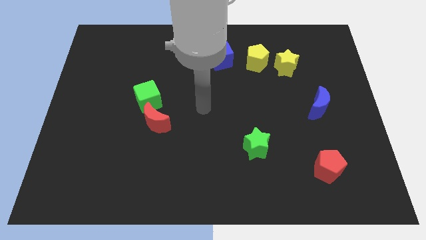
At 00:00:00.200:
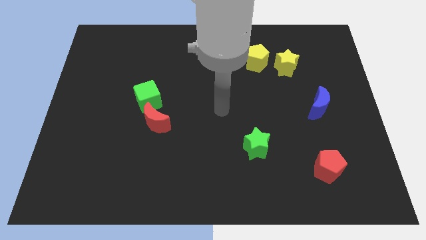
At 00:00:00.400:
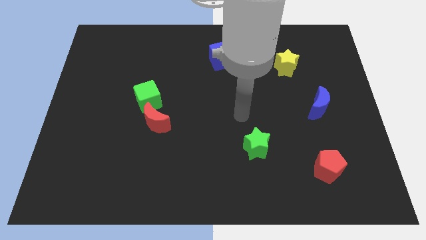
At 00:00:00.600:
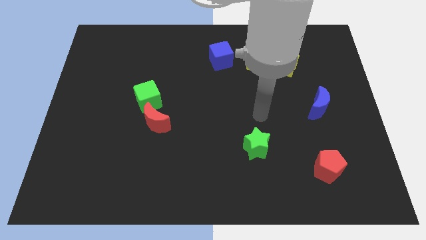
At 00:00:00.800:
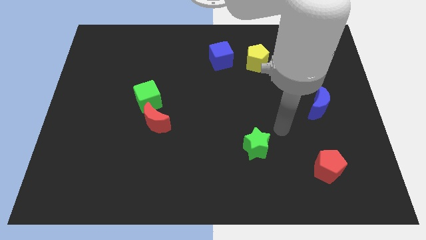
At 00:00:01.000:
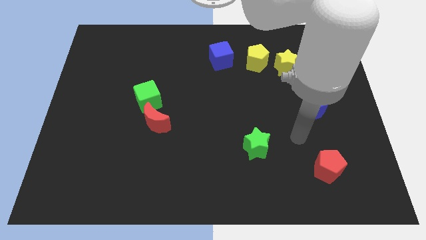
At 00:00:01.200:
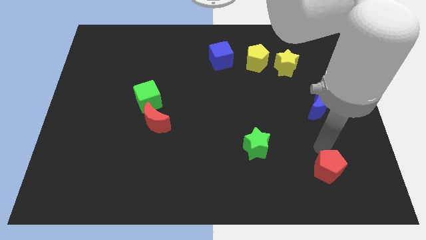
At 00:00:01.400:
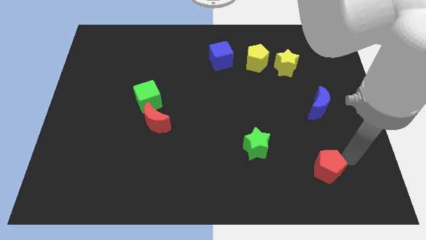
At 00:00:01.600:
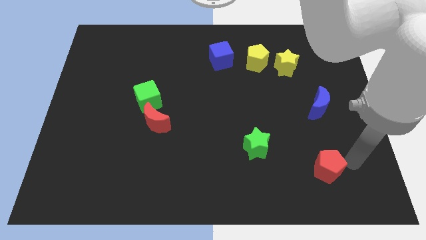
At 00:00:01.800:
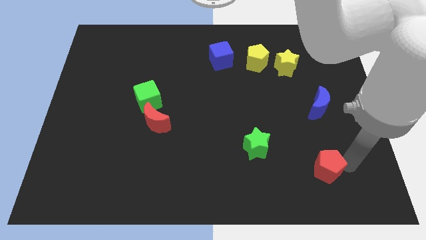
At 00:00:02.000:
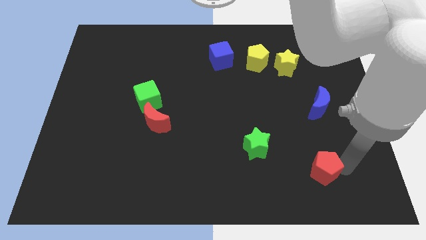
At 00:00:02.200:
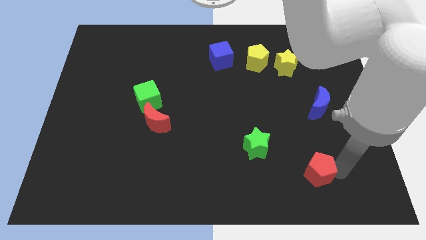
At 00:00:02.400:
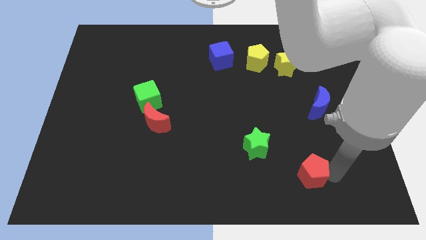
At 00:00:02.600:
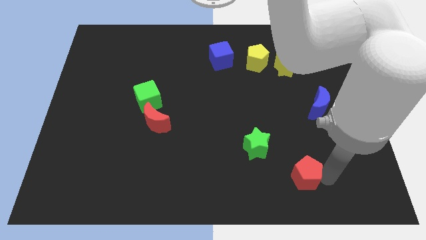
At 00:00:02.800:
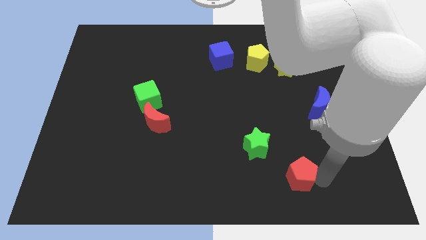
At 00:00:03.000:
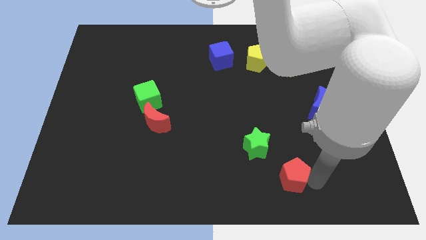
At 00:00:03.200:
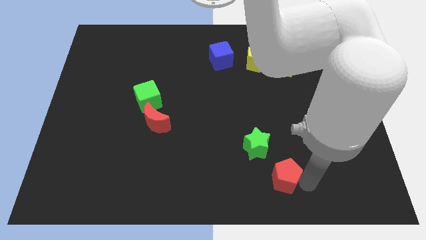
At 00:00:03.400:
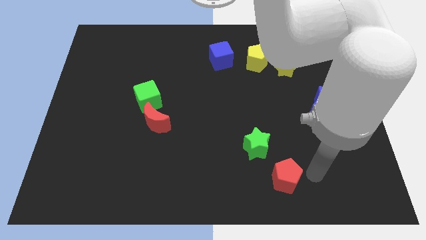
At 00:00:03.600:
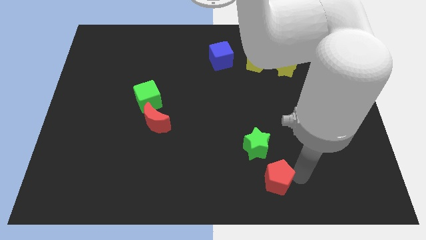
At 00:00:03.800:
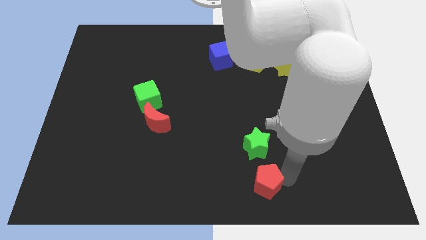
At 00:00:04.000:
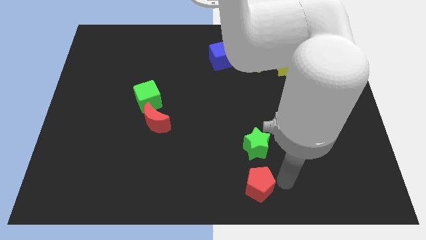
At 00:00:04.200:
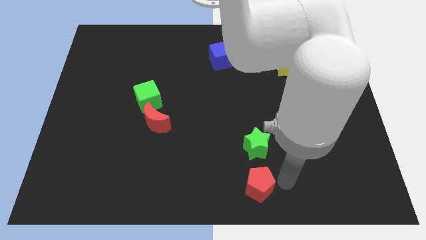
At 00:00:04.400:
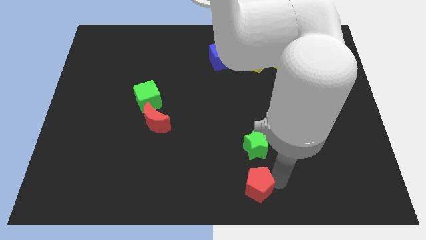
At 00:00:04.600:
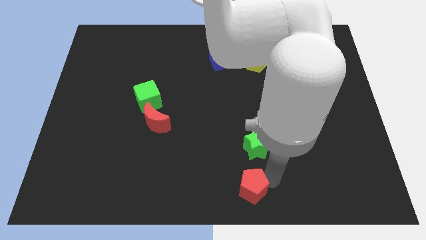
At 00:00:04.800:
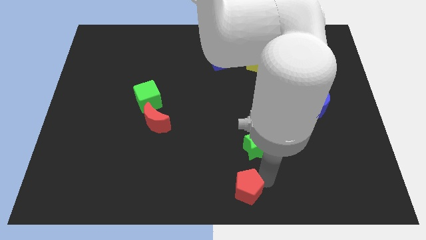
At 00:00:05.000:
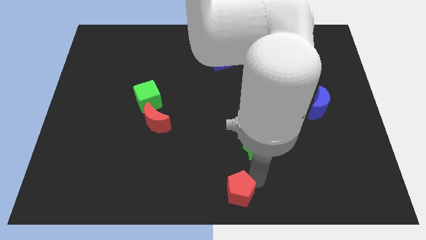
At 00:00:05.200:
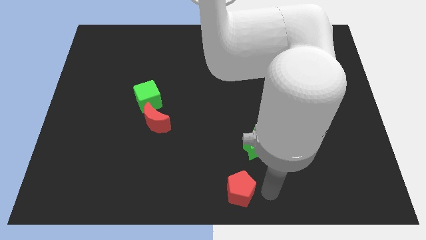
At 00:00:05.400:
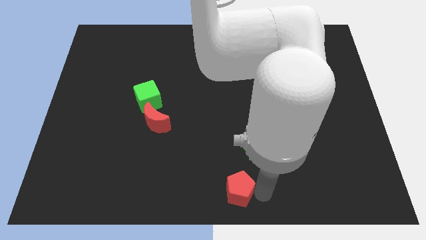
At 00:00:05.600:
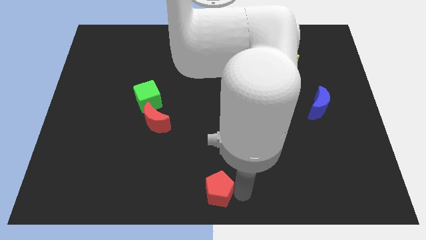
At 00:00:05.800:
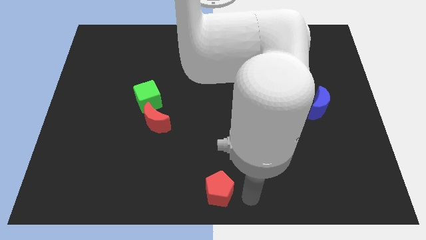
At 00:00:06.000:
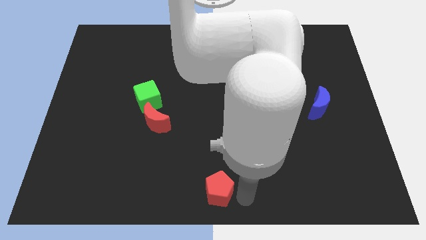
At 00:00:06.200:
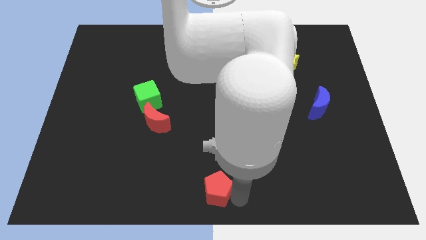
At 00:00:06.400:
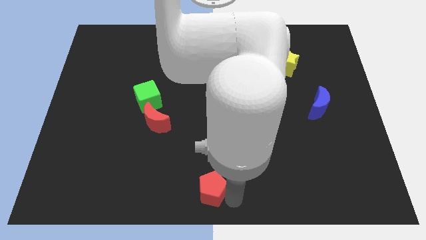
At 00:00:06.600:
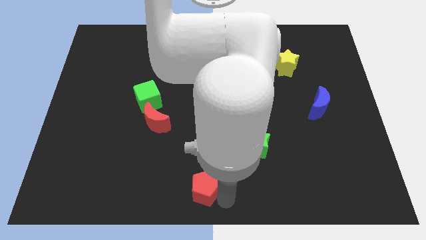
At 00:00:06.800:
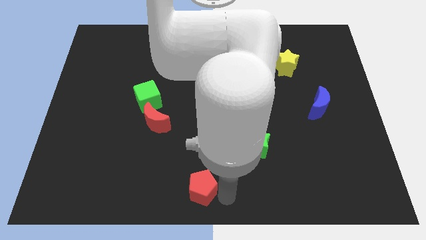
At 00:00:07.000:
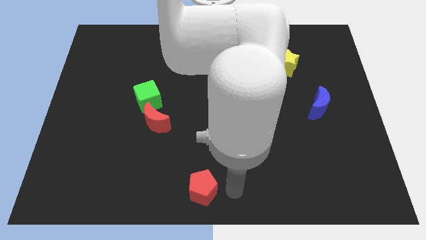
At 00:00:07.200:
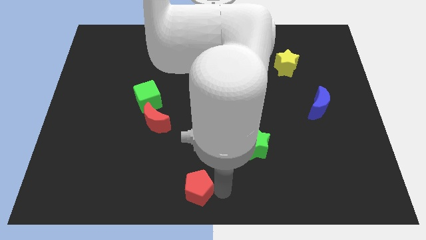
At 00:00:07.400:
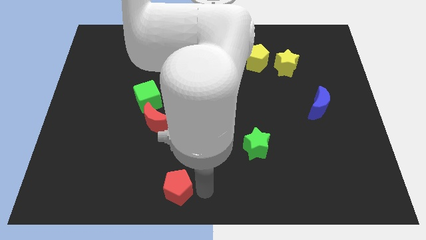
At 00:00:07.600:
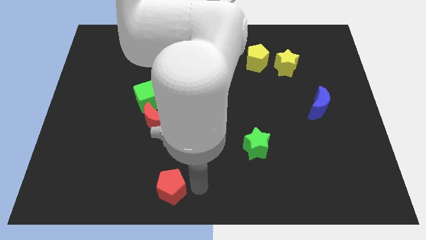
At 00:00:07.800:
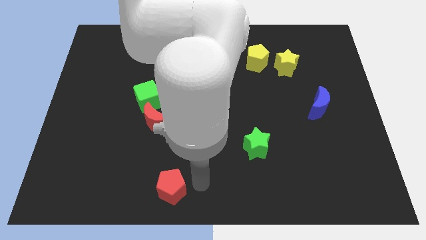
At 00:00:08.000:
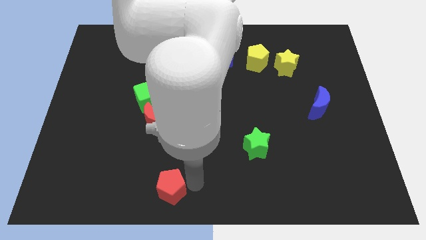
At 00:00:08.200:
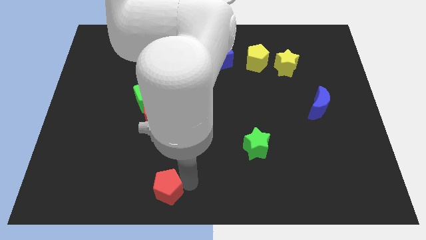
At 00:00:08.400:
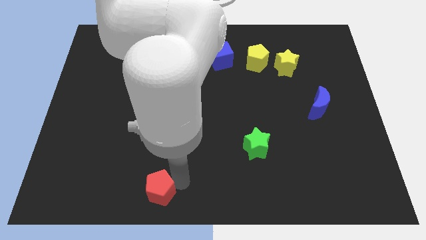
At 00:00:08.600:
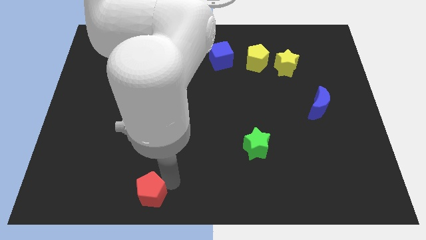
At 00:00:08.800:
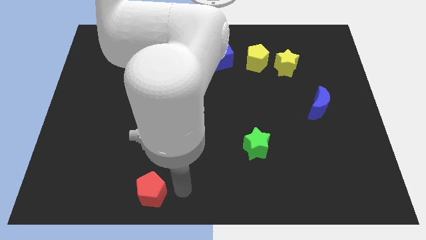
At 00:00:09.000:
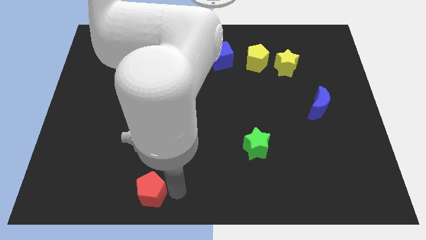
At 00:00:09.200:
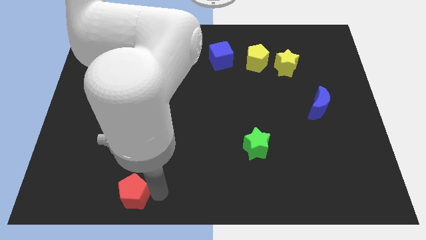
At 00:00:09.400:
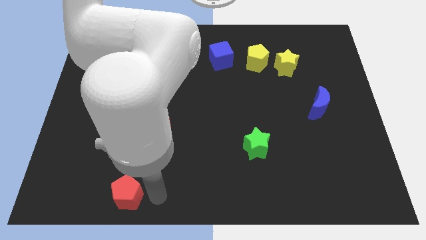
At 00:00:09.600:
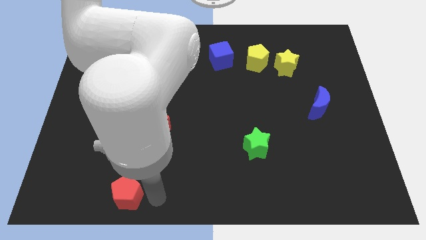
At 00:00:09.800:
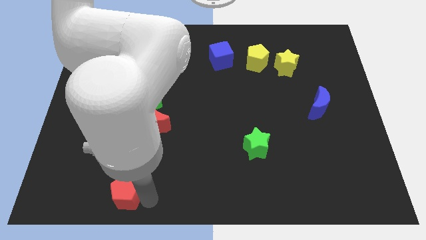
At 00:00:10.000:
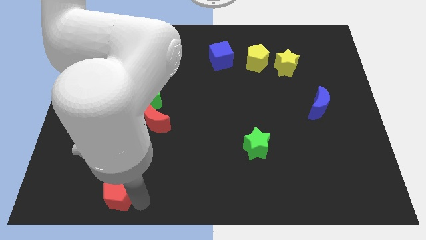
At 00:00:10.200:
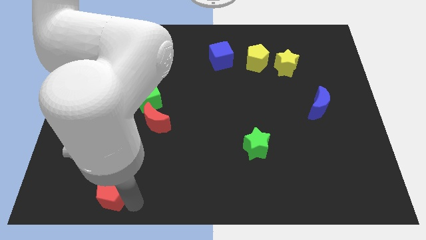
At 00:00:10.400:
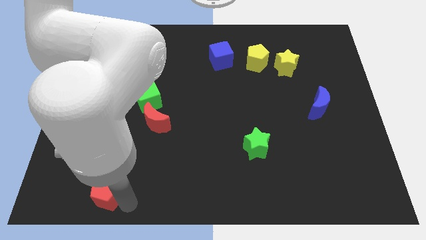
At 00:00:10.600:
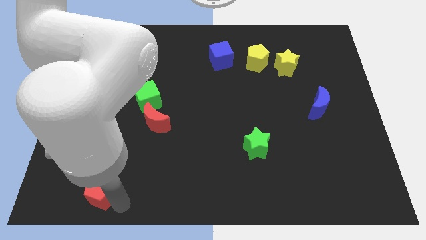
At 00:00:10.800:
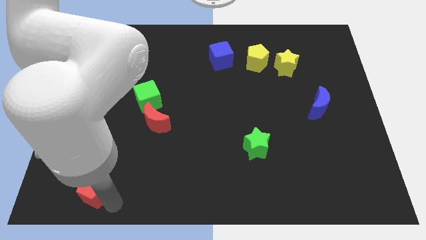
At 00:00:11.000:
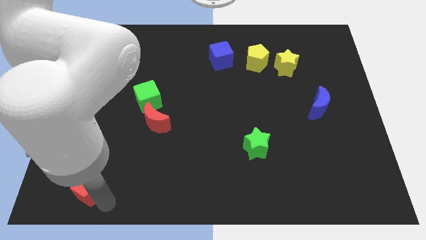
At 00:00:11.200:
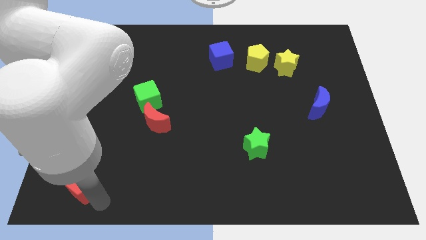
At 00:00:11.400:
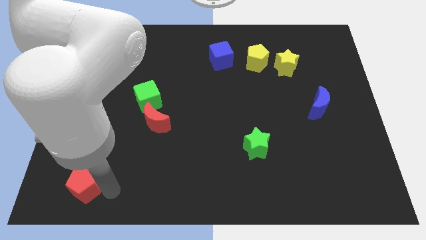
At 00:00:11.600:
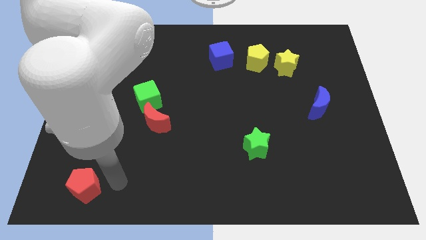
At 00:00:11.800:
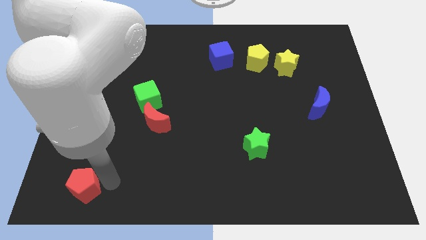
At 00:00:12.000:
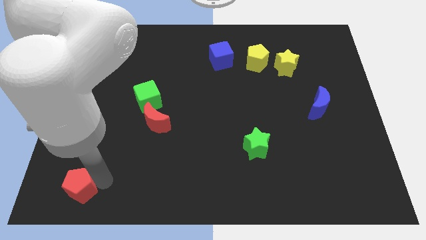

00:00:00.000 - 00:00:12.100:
push the red pentagon to the lower left corner

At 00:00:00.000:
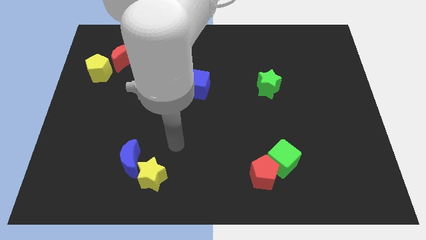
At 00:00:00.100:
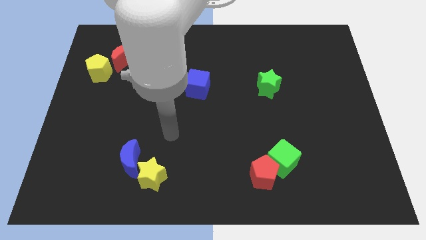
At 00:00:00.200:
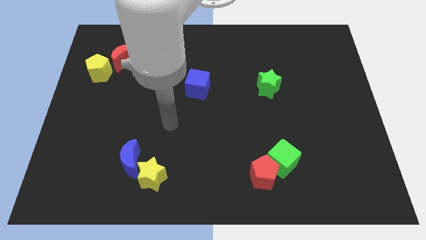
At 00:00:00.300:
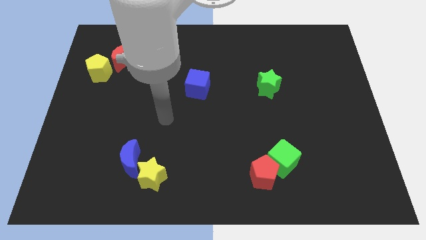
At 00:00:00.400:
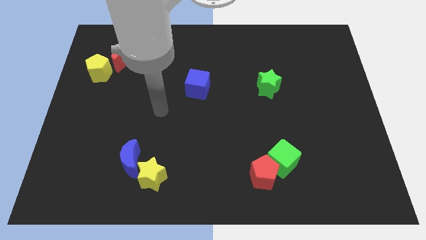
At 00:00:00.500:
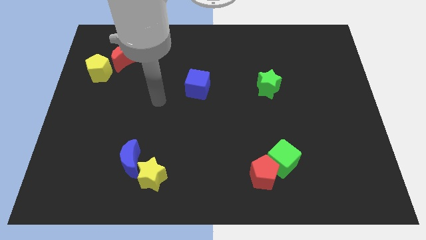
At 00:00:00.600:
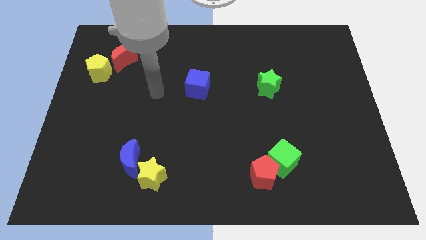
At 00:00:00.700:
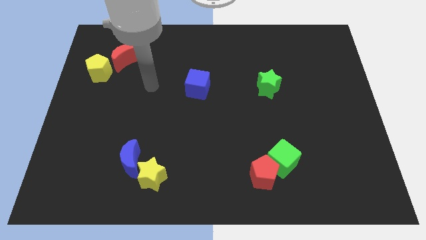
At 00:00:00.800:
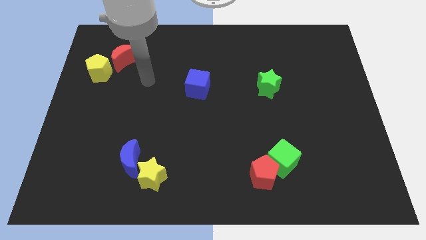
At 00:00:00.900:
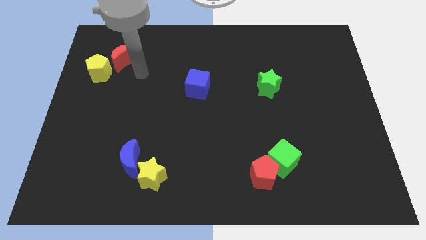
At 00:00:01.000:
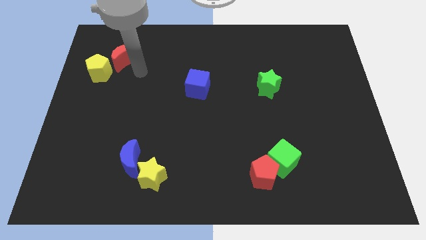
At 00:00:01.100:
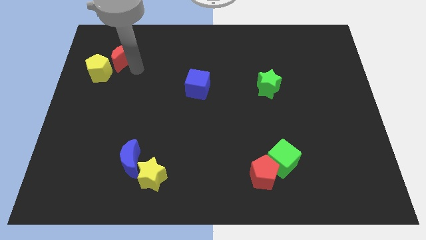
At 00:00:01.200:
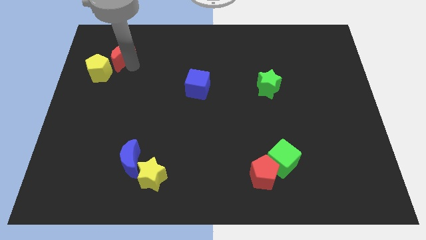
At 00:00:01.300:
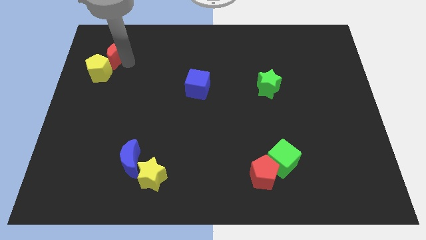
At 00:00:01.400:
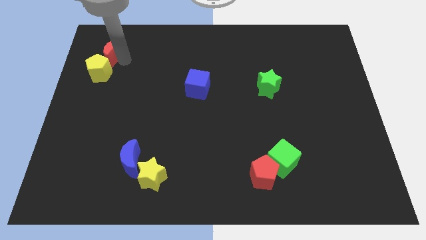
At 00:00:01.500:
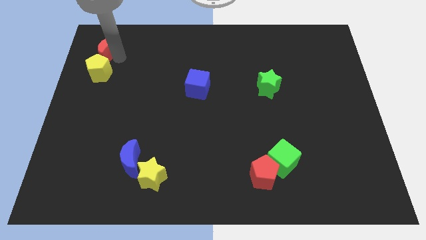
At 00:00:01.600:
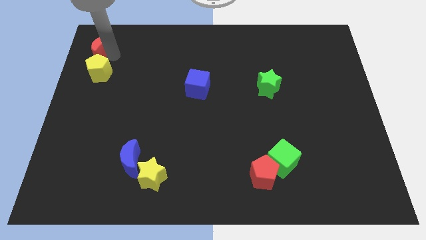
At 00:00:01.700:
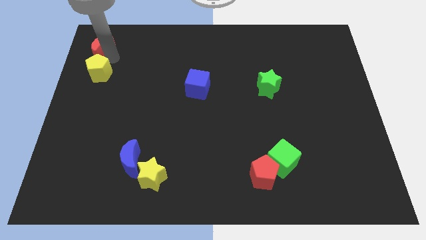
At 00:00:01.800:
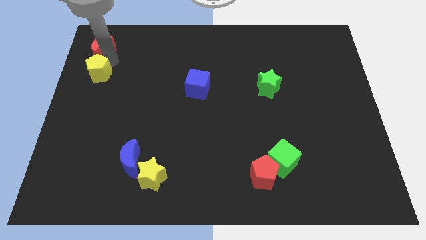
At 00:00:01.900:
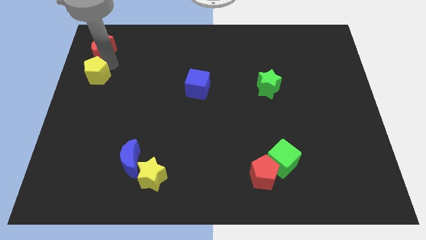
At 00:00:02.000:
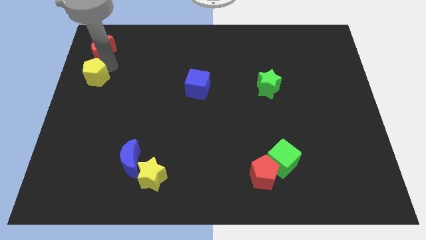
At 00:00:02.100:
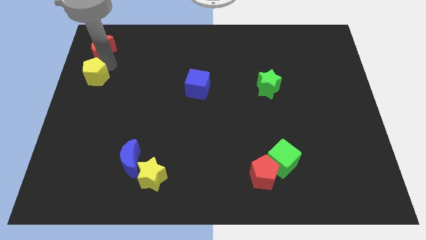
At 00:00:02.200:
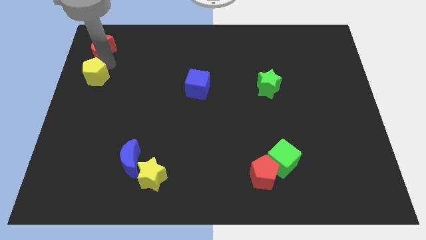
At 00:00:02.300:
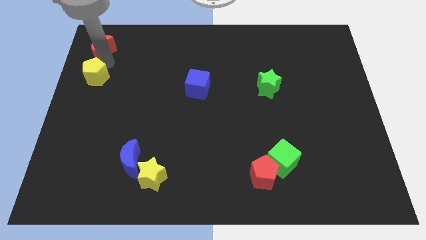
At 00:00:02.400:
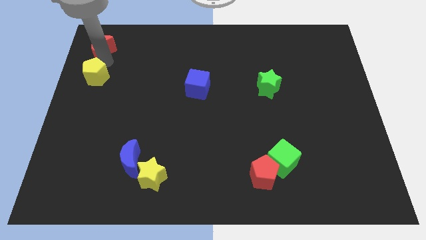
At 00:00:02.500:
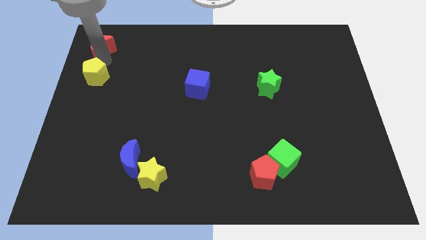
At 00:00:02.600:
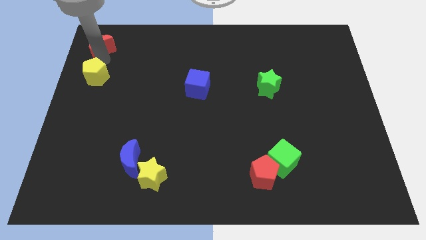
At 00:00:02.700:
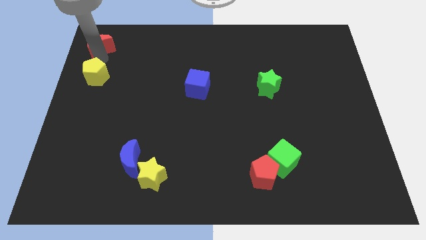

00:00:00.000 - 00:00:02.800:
put the red moon to the top left of the board
